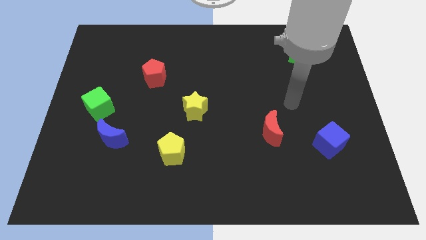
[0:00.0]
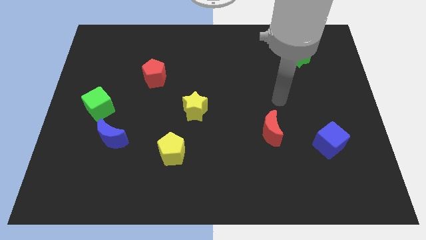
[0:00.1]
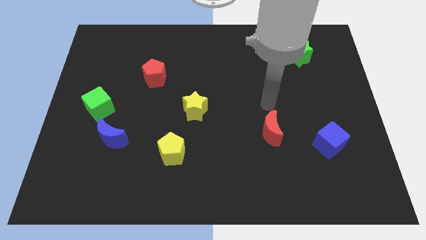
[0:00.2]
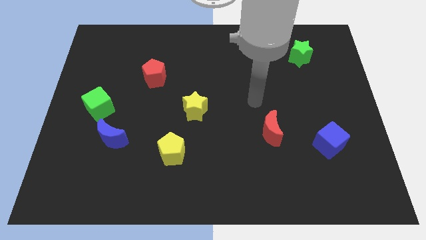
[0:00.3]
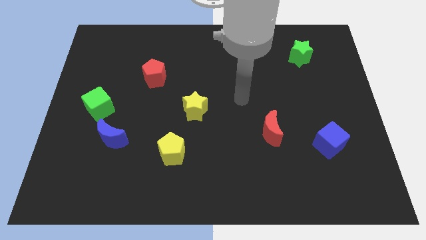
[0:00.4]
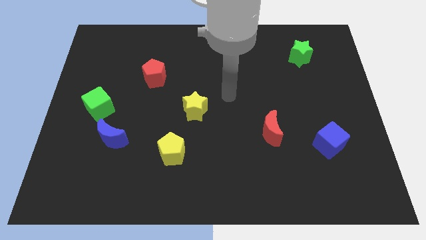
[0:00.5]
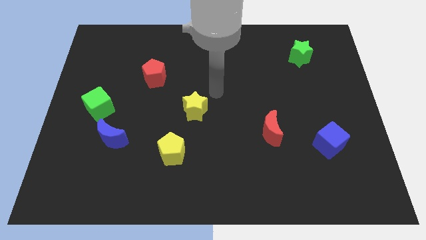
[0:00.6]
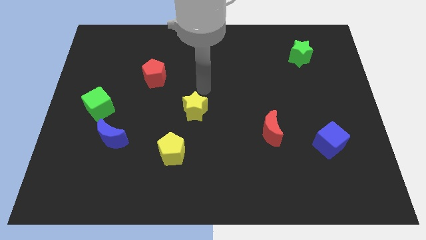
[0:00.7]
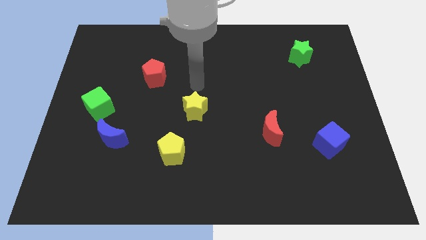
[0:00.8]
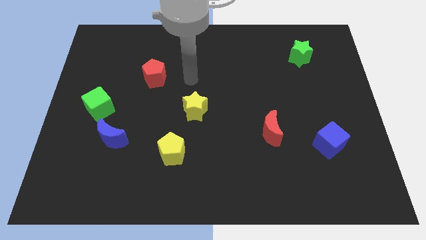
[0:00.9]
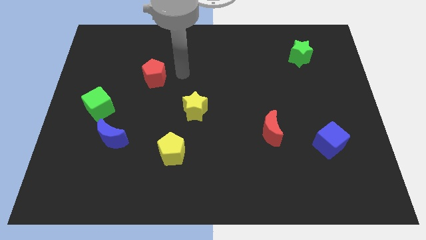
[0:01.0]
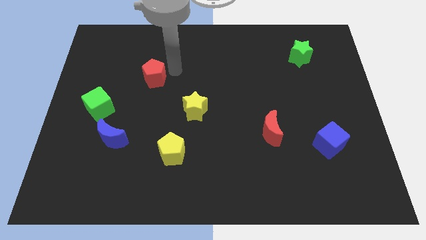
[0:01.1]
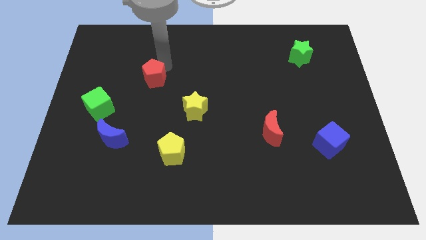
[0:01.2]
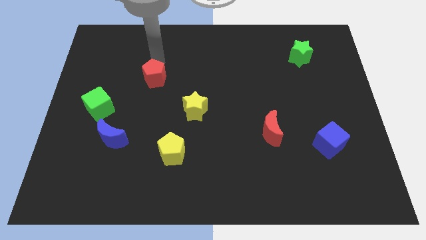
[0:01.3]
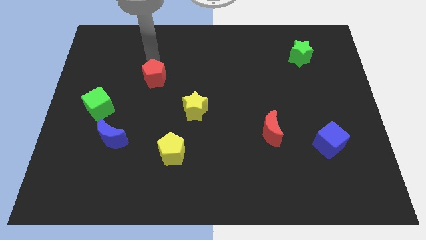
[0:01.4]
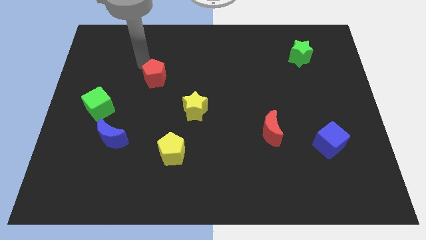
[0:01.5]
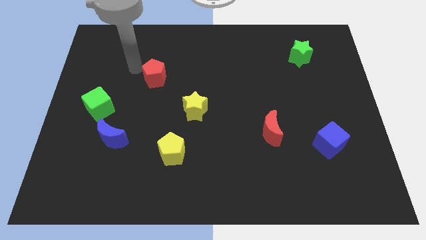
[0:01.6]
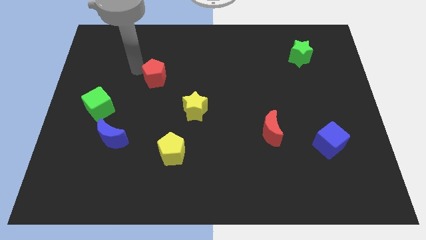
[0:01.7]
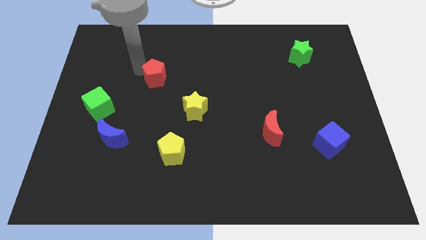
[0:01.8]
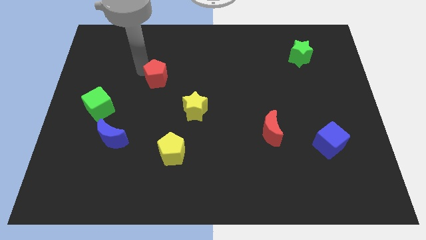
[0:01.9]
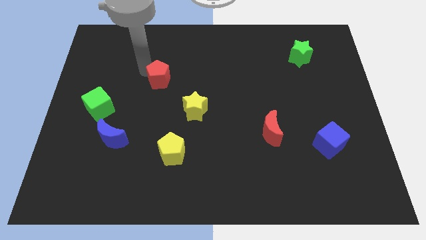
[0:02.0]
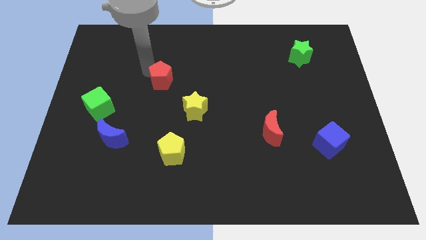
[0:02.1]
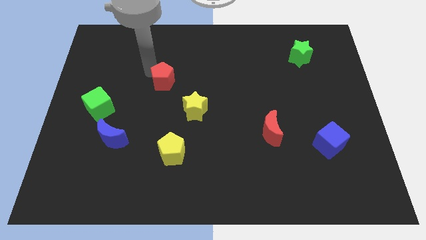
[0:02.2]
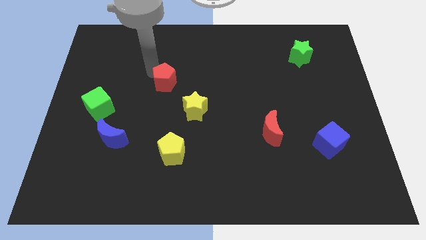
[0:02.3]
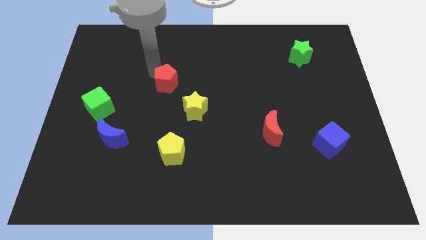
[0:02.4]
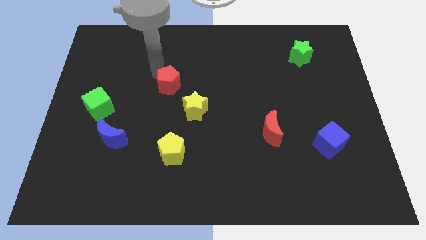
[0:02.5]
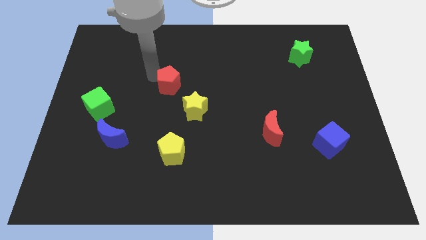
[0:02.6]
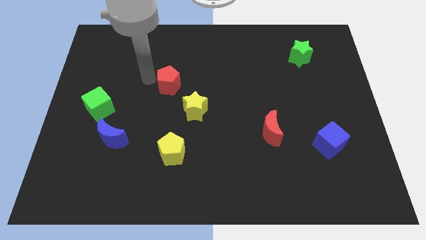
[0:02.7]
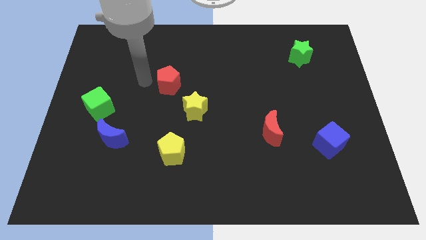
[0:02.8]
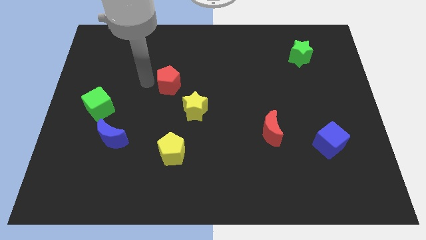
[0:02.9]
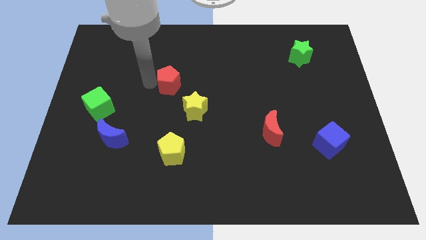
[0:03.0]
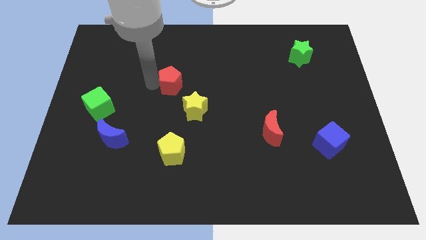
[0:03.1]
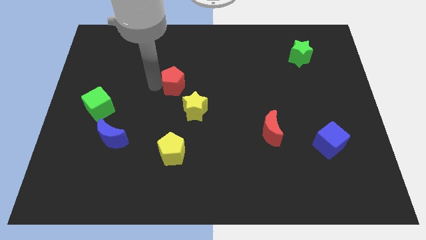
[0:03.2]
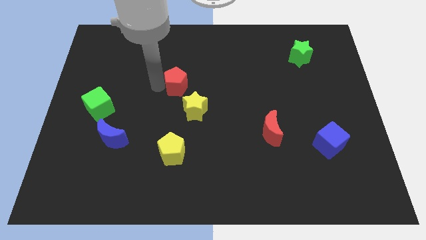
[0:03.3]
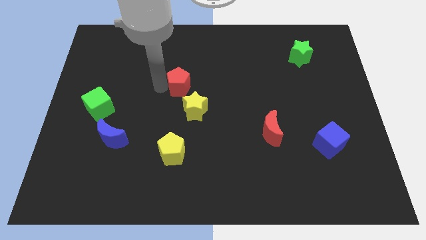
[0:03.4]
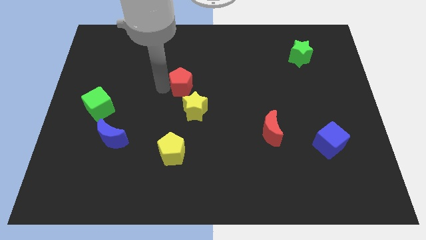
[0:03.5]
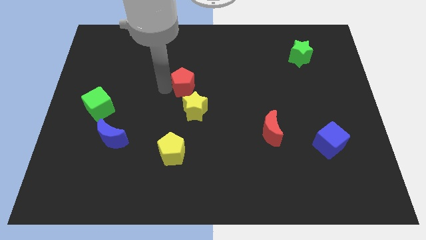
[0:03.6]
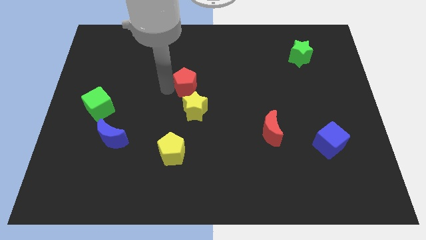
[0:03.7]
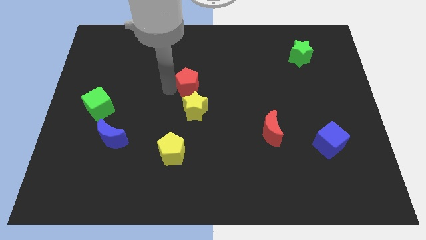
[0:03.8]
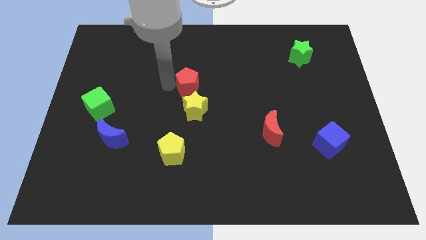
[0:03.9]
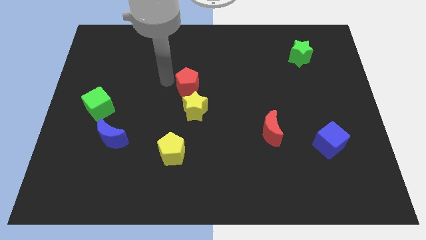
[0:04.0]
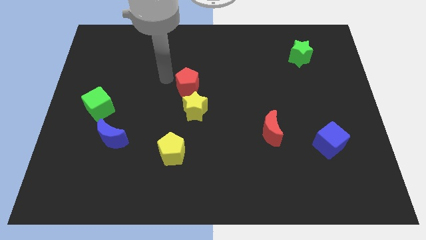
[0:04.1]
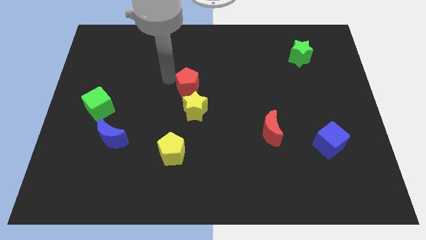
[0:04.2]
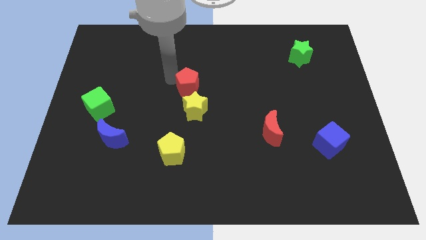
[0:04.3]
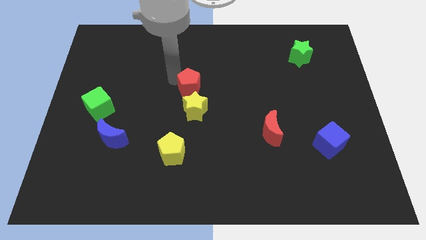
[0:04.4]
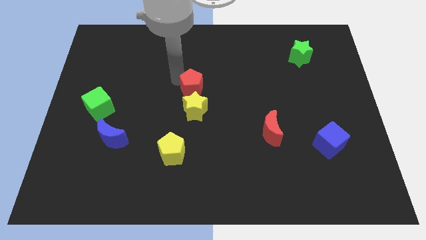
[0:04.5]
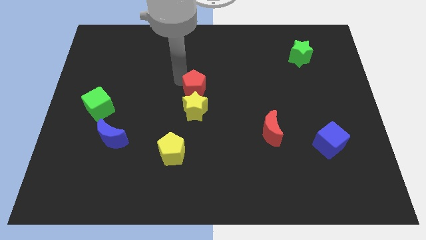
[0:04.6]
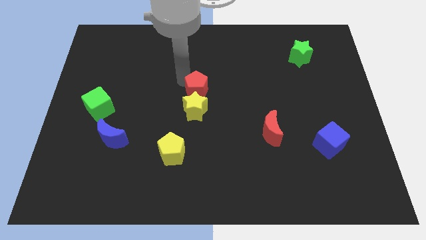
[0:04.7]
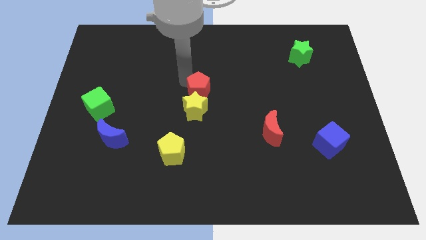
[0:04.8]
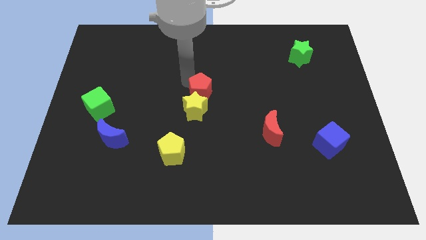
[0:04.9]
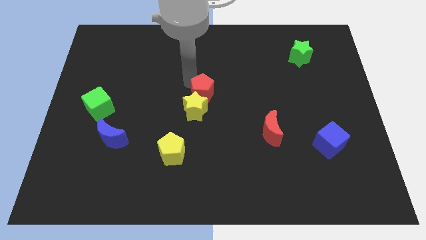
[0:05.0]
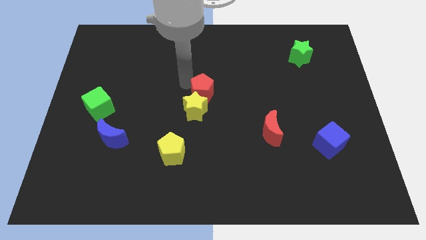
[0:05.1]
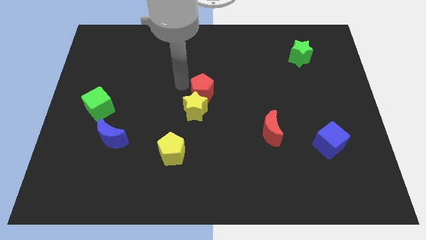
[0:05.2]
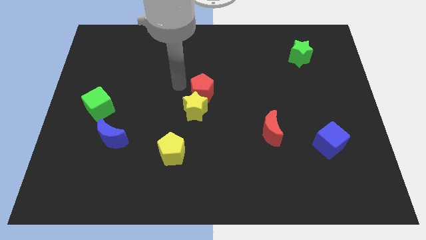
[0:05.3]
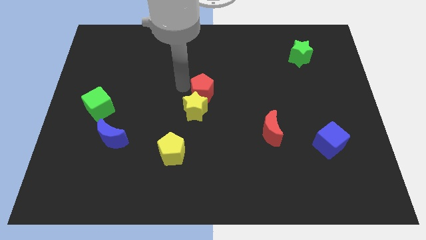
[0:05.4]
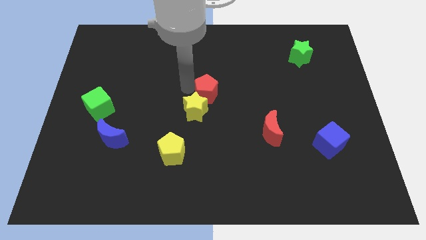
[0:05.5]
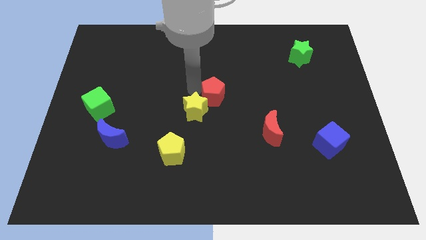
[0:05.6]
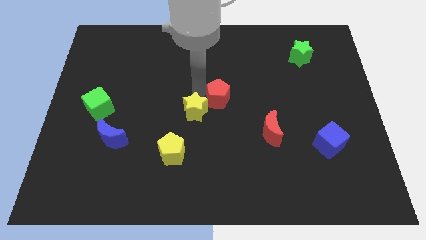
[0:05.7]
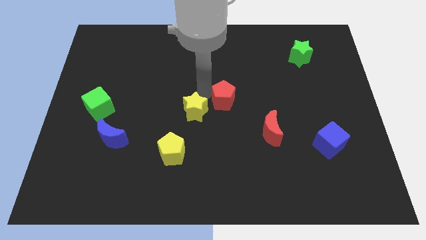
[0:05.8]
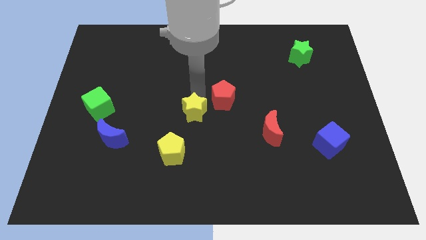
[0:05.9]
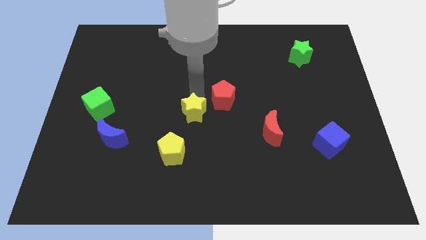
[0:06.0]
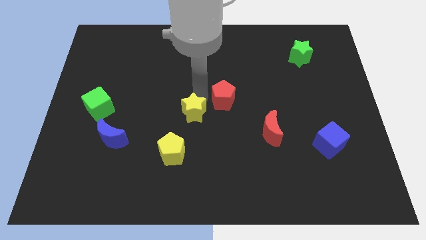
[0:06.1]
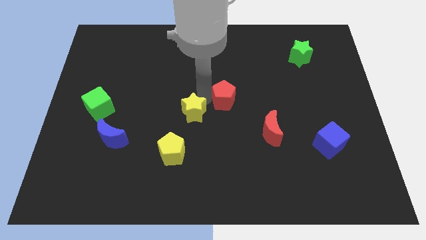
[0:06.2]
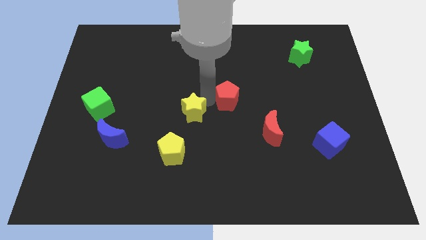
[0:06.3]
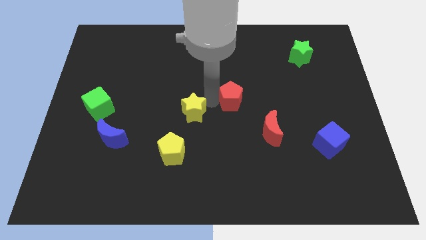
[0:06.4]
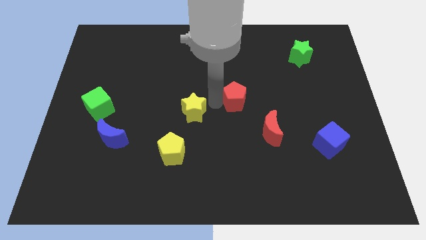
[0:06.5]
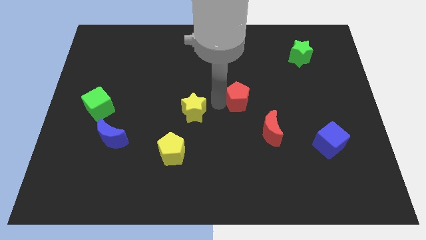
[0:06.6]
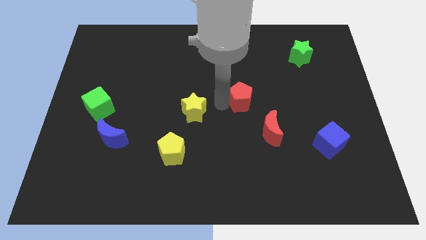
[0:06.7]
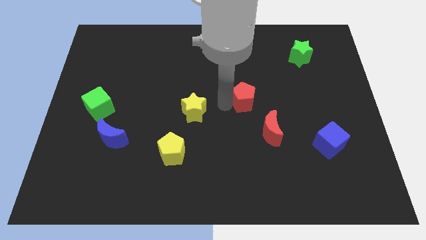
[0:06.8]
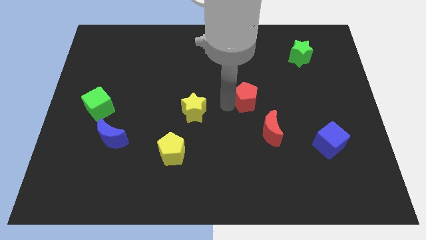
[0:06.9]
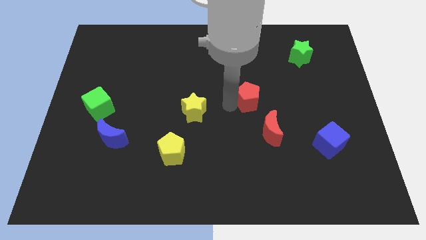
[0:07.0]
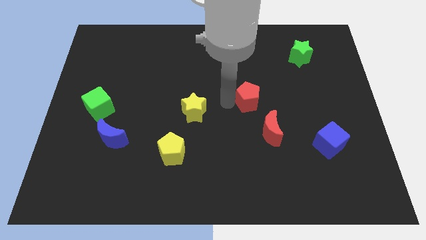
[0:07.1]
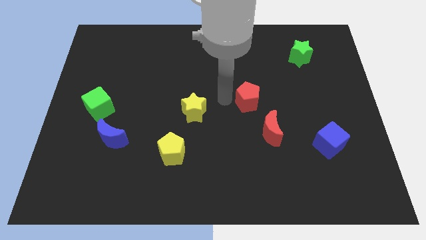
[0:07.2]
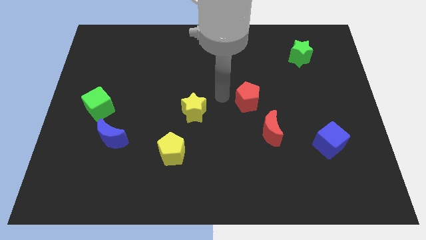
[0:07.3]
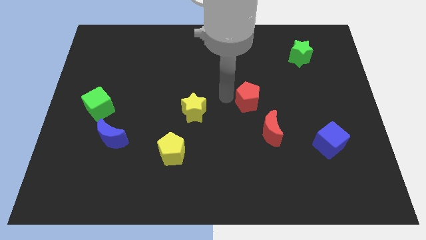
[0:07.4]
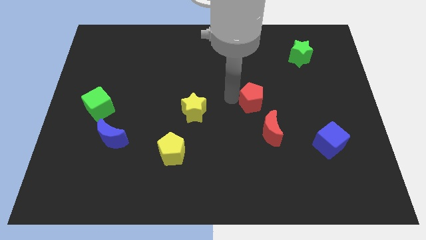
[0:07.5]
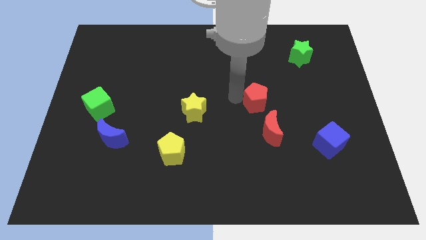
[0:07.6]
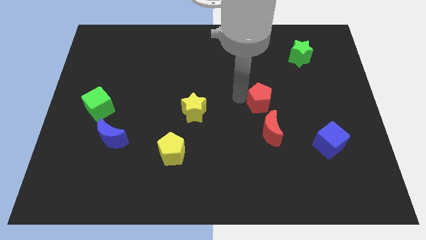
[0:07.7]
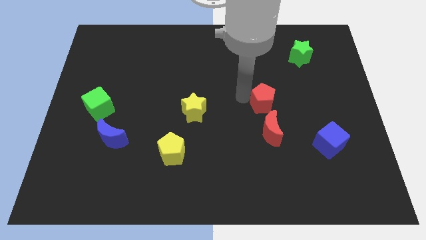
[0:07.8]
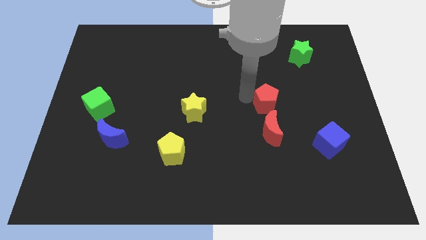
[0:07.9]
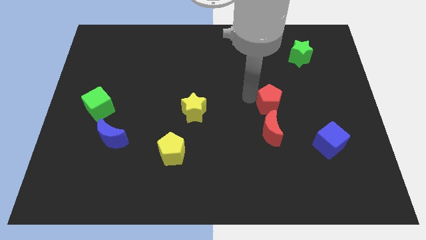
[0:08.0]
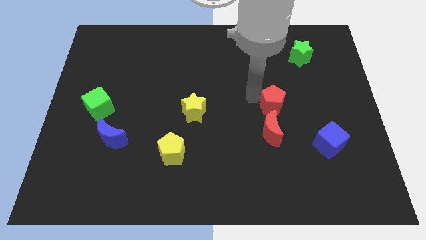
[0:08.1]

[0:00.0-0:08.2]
push the red pentagon to the top right of the red moon
